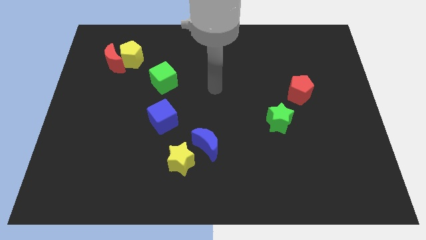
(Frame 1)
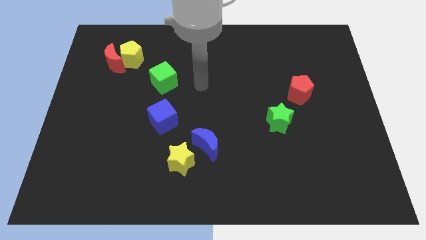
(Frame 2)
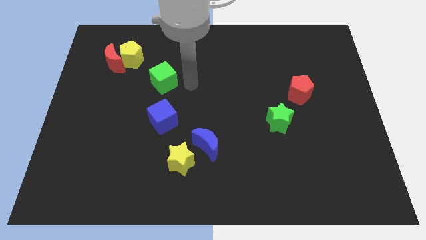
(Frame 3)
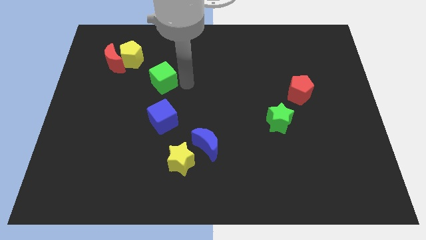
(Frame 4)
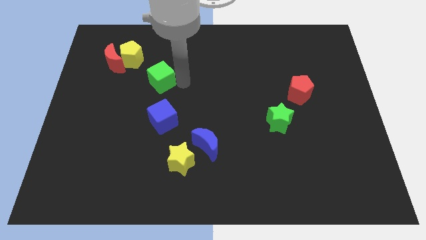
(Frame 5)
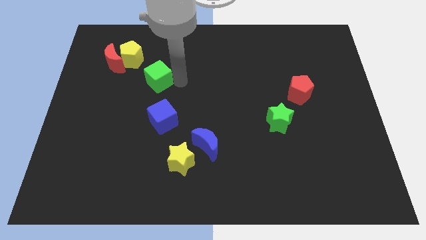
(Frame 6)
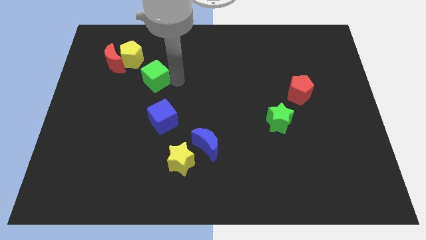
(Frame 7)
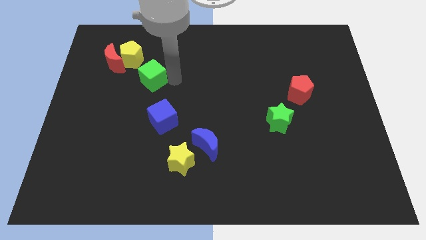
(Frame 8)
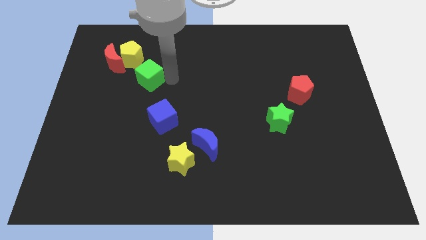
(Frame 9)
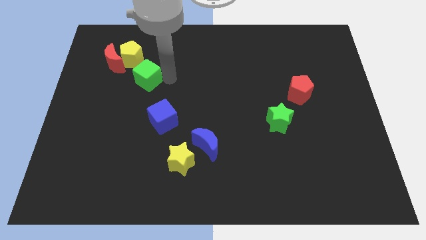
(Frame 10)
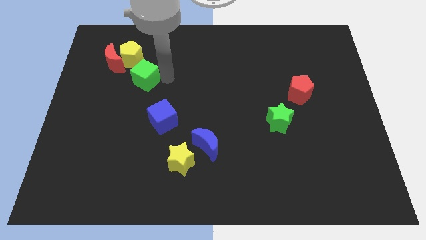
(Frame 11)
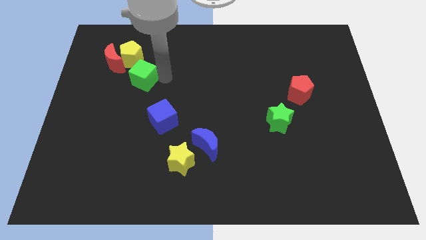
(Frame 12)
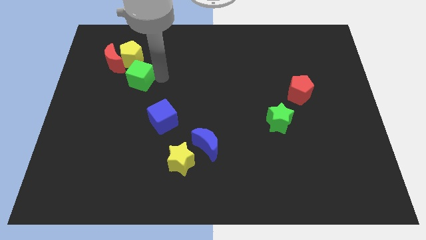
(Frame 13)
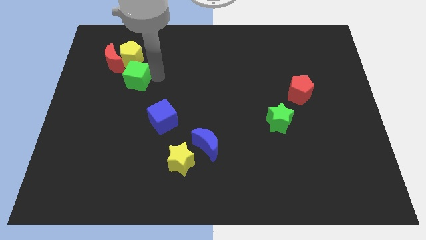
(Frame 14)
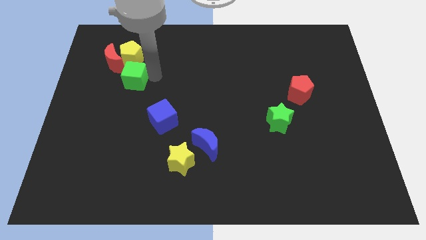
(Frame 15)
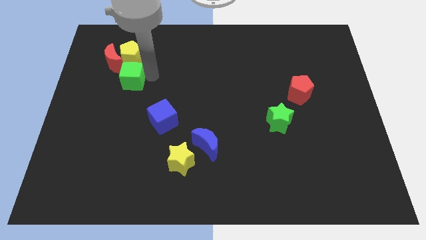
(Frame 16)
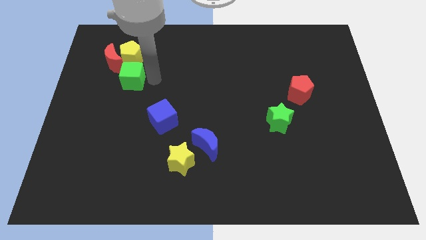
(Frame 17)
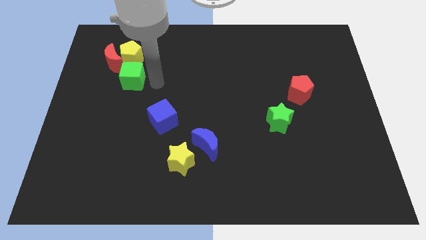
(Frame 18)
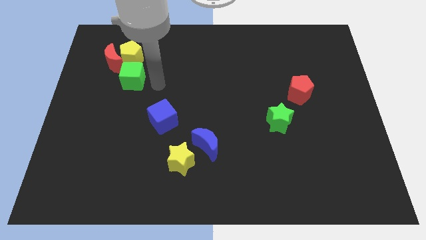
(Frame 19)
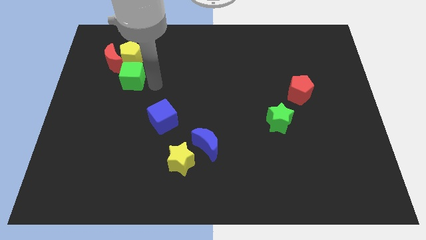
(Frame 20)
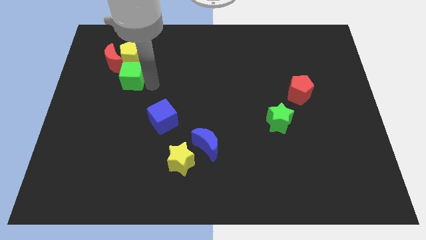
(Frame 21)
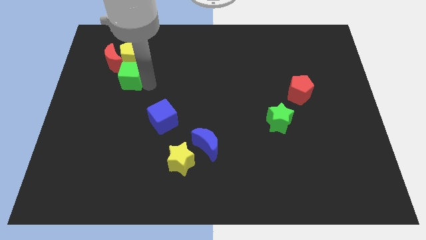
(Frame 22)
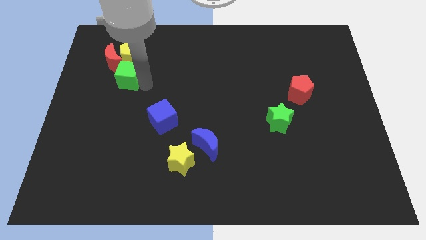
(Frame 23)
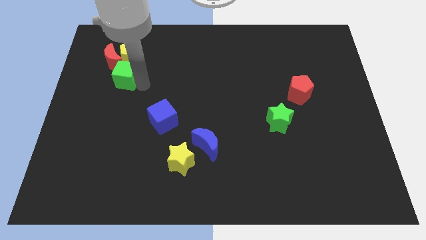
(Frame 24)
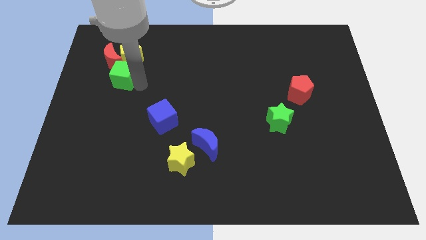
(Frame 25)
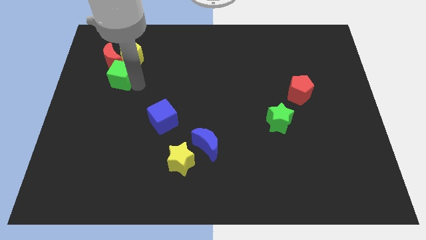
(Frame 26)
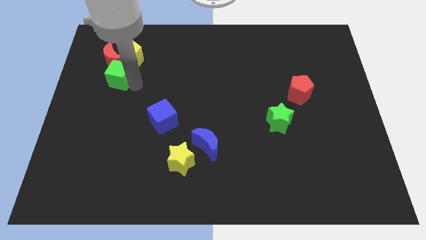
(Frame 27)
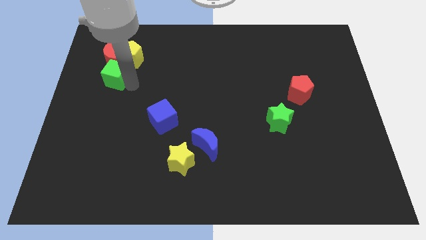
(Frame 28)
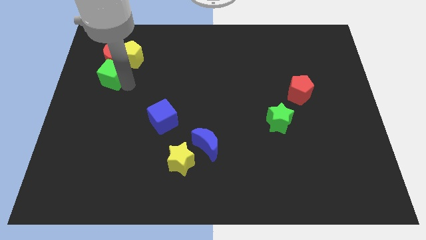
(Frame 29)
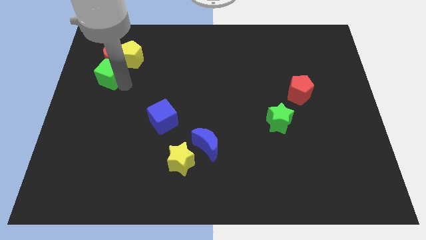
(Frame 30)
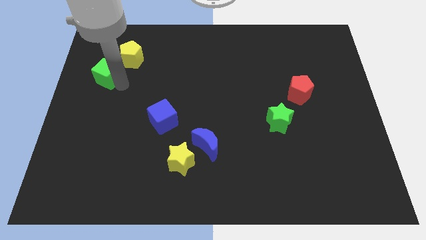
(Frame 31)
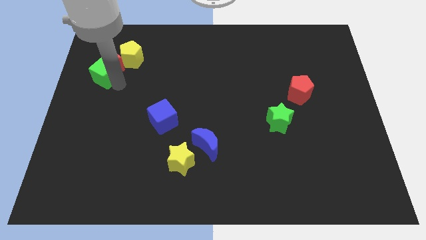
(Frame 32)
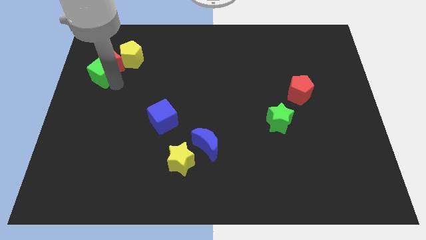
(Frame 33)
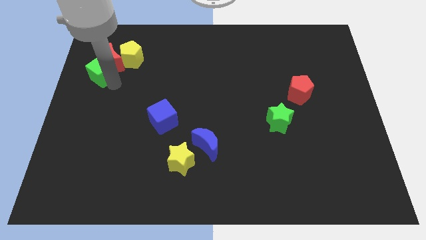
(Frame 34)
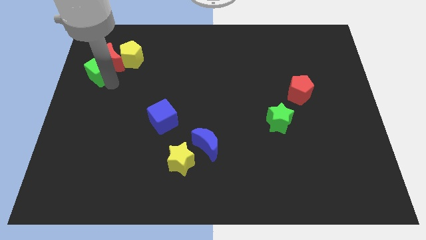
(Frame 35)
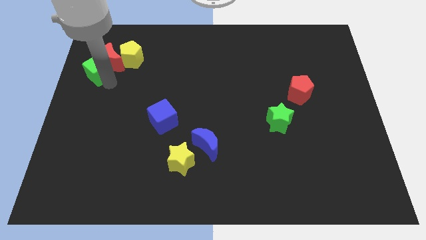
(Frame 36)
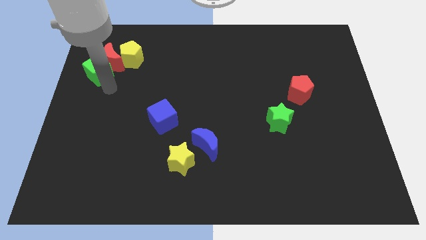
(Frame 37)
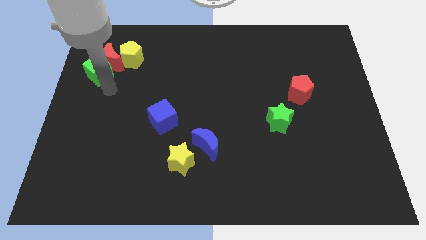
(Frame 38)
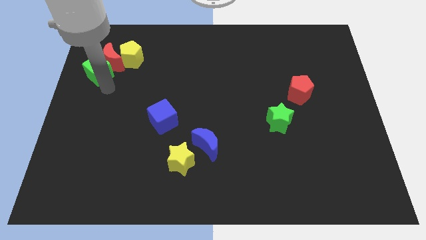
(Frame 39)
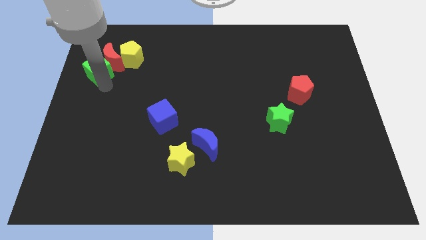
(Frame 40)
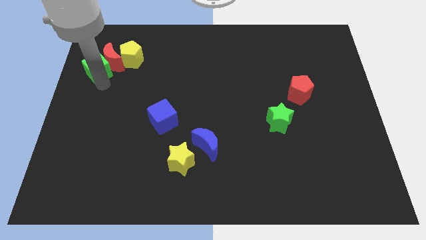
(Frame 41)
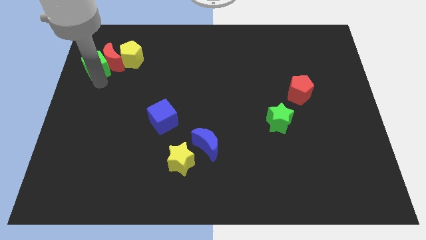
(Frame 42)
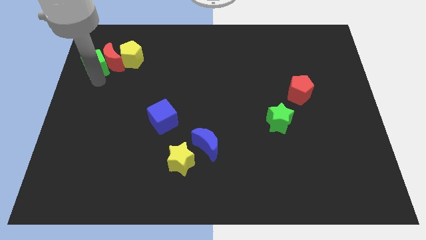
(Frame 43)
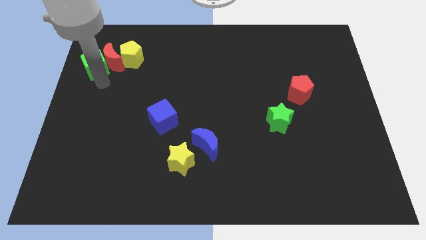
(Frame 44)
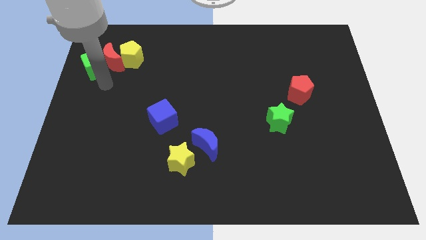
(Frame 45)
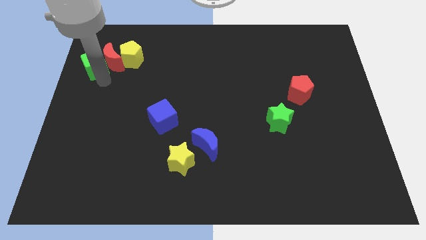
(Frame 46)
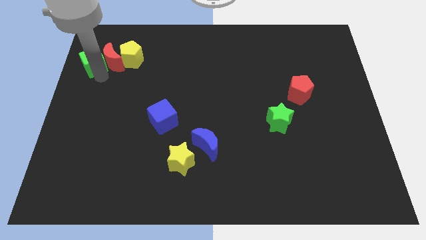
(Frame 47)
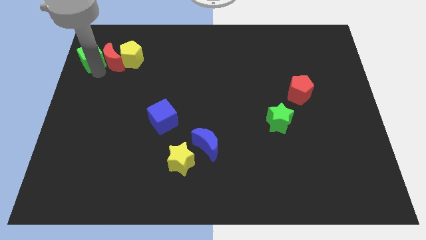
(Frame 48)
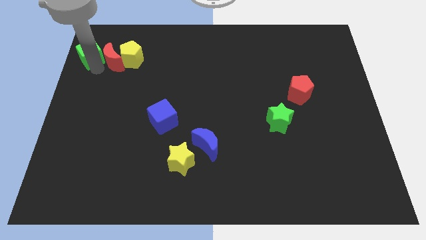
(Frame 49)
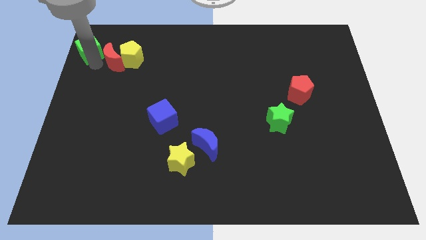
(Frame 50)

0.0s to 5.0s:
push the green cube to the top left of the board

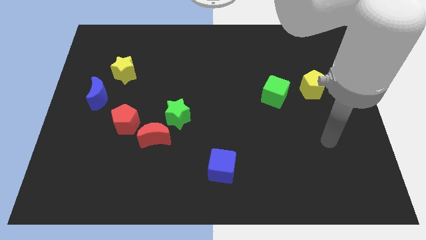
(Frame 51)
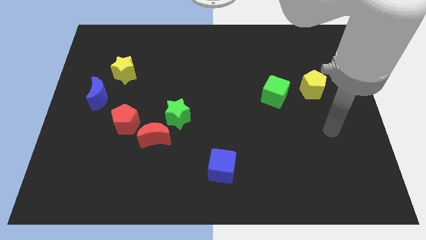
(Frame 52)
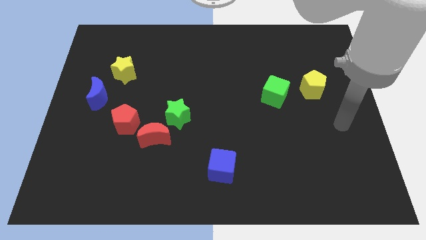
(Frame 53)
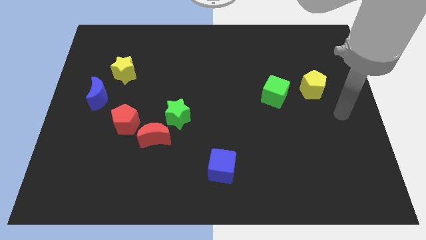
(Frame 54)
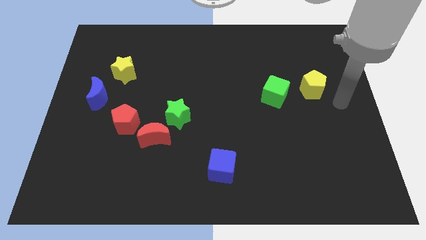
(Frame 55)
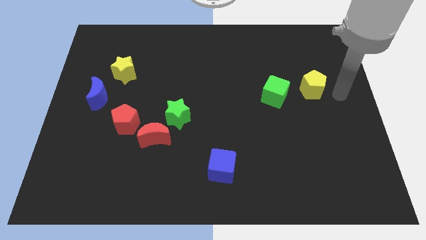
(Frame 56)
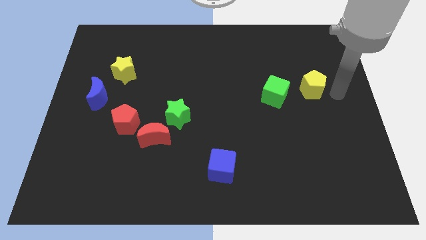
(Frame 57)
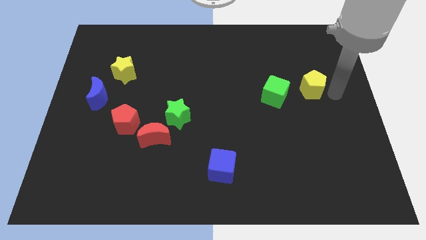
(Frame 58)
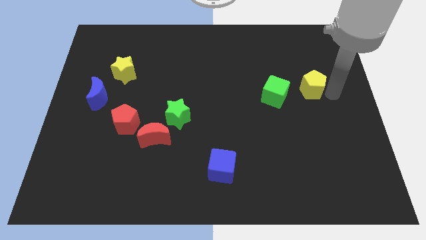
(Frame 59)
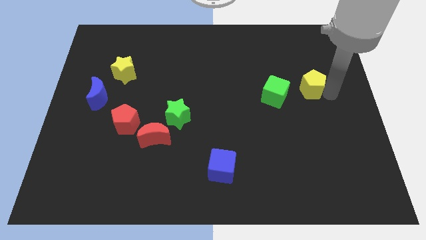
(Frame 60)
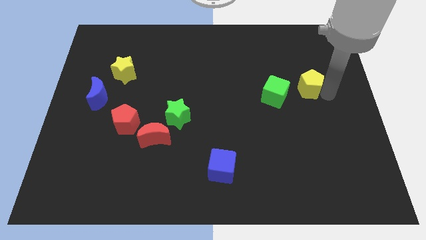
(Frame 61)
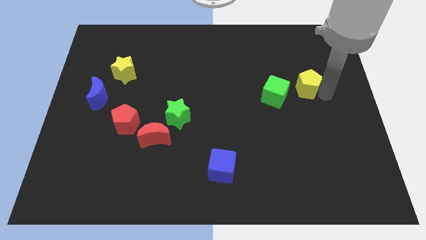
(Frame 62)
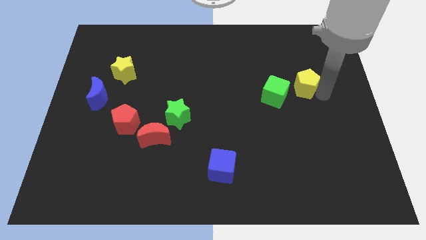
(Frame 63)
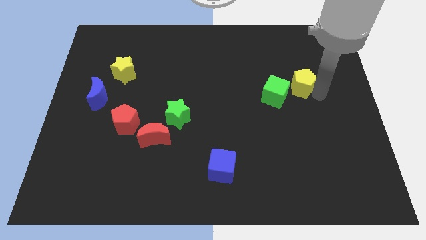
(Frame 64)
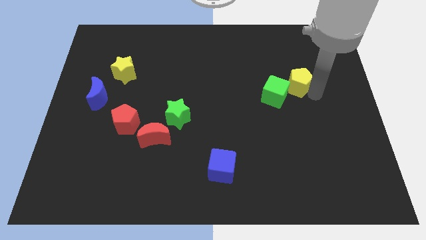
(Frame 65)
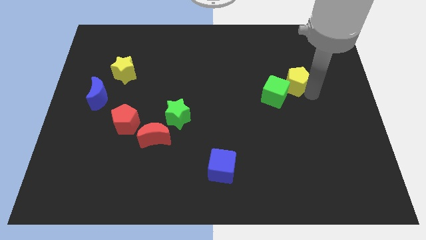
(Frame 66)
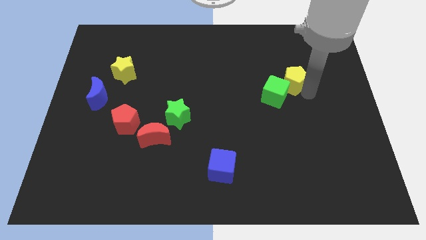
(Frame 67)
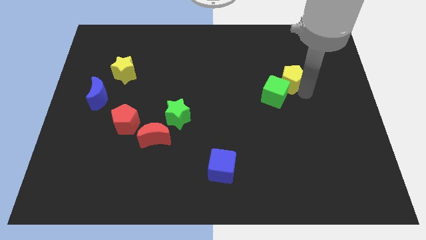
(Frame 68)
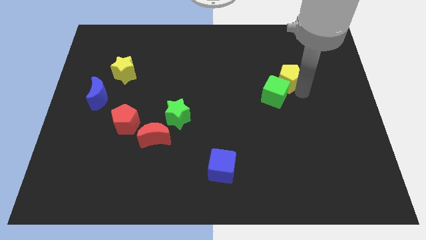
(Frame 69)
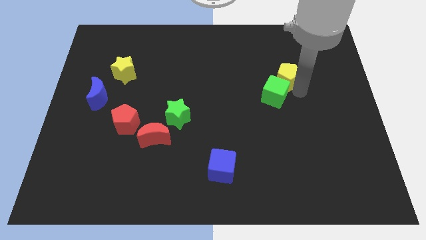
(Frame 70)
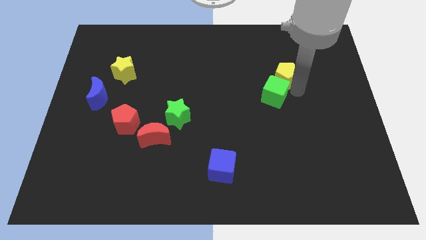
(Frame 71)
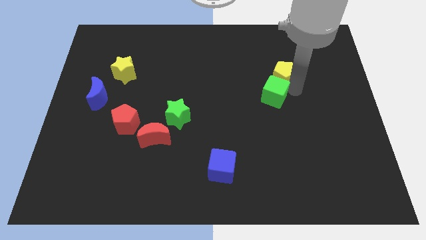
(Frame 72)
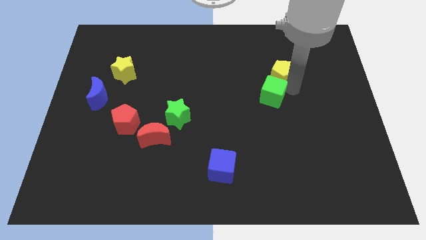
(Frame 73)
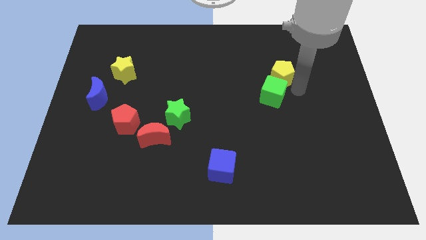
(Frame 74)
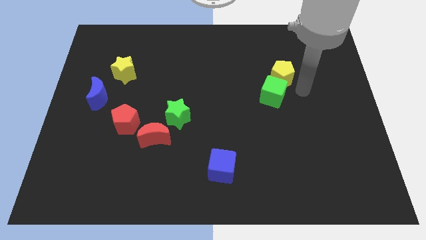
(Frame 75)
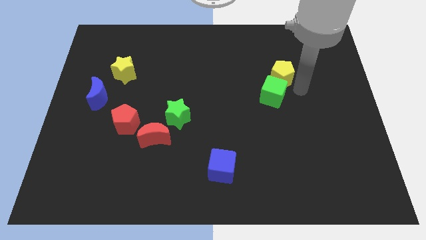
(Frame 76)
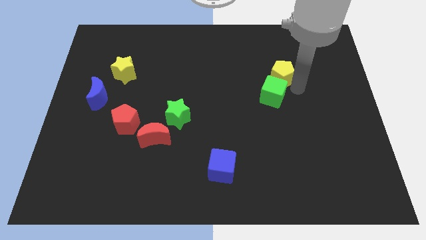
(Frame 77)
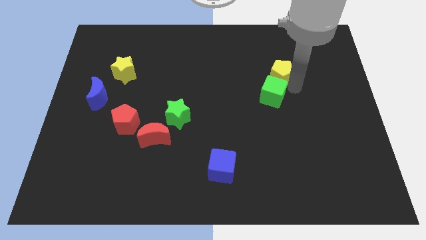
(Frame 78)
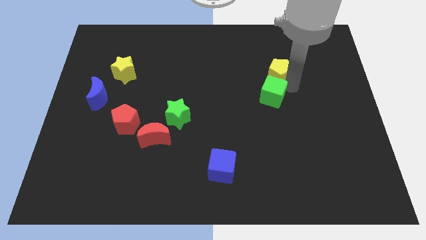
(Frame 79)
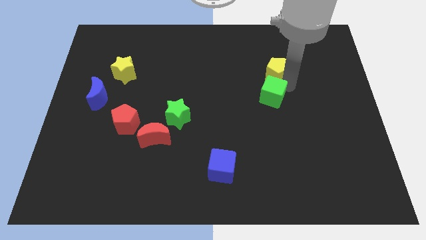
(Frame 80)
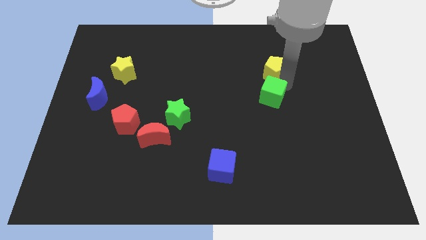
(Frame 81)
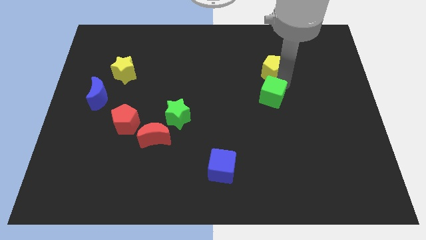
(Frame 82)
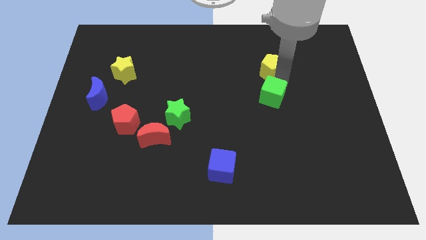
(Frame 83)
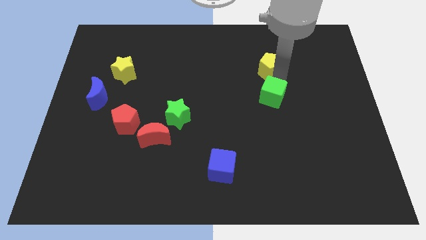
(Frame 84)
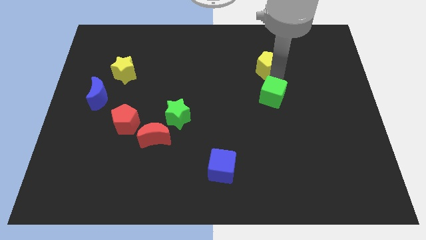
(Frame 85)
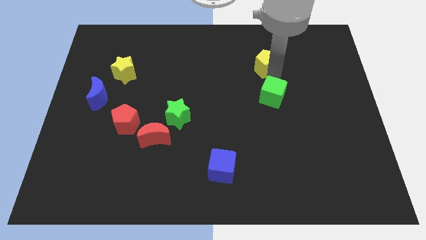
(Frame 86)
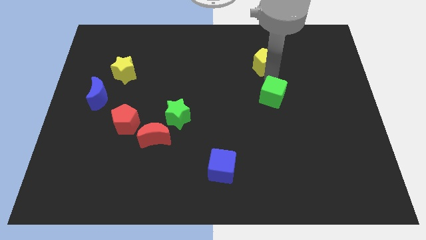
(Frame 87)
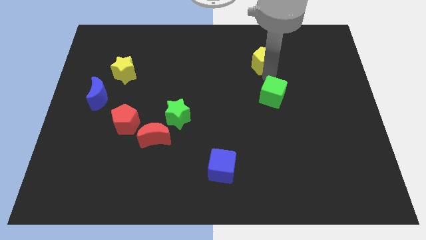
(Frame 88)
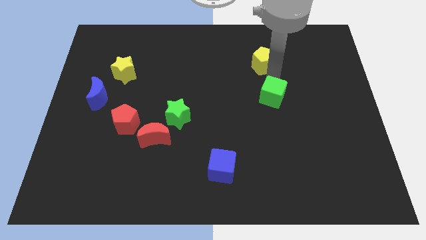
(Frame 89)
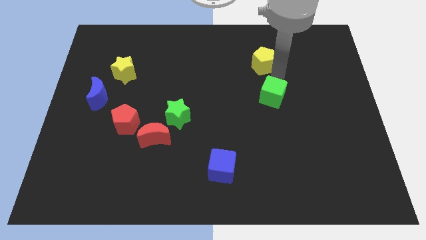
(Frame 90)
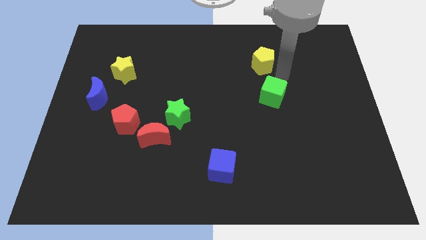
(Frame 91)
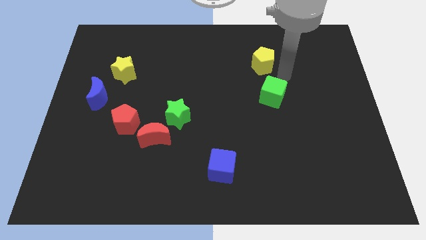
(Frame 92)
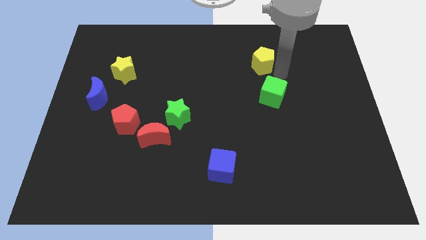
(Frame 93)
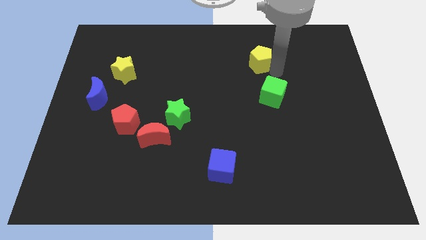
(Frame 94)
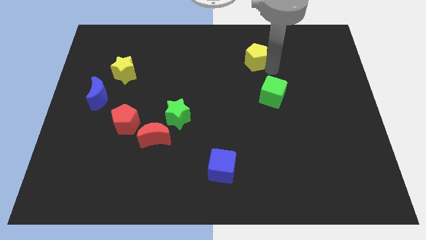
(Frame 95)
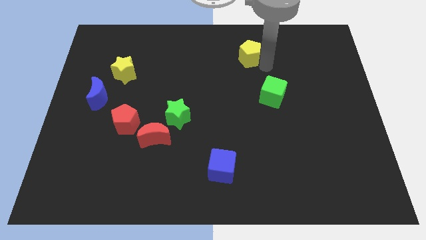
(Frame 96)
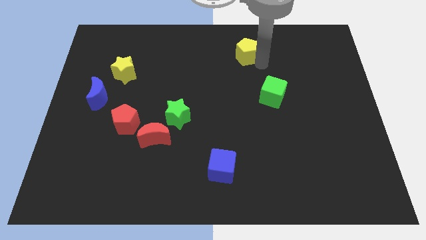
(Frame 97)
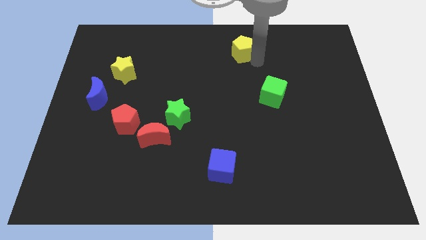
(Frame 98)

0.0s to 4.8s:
put the yellow pentagon to the top side
